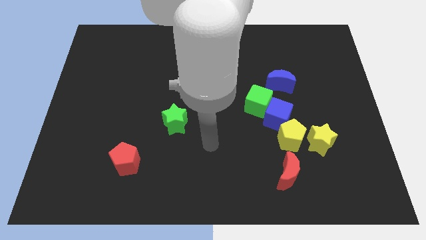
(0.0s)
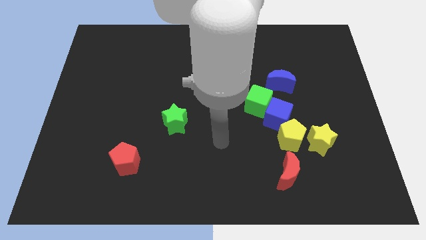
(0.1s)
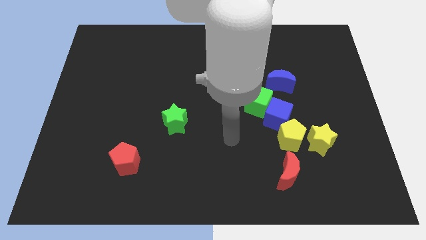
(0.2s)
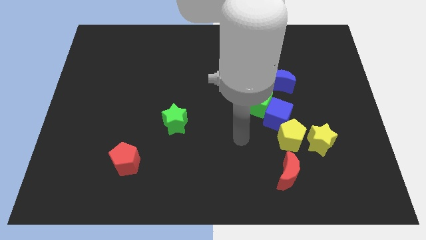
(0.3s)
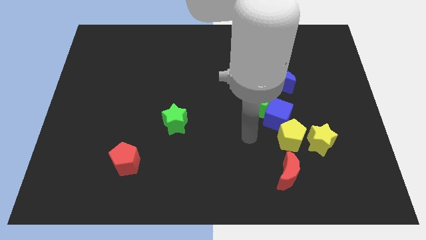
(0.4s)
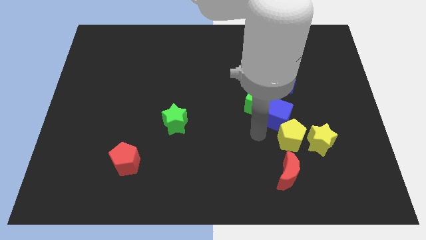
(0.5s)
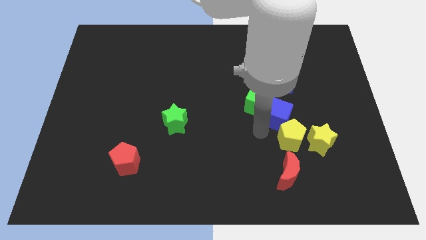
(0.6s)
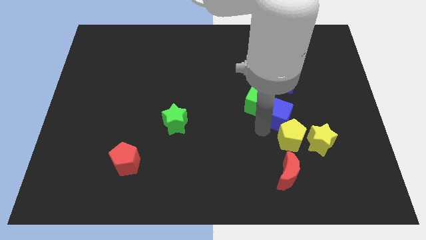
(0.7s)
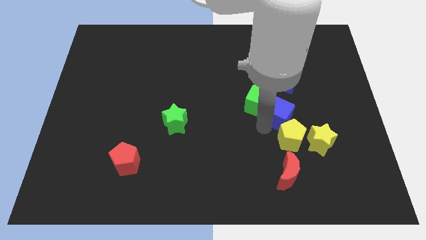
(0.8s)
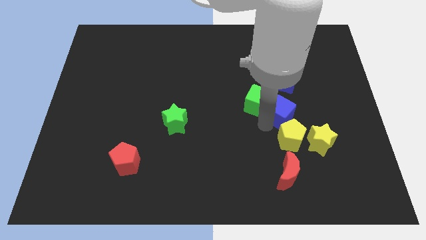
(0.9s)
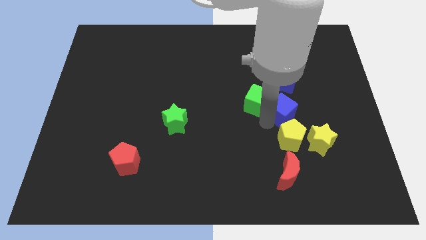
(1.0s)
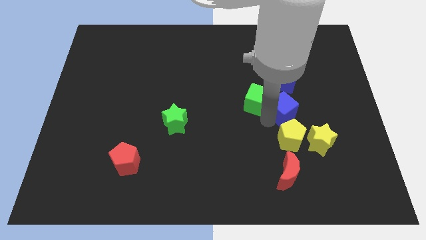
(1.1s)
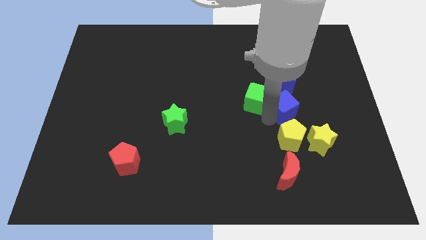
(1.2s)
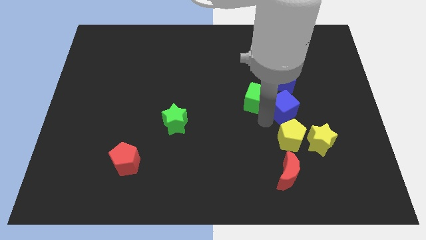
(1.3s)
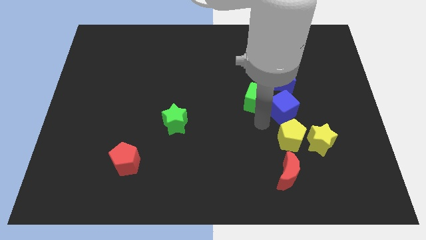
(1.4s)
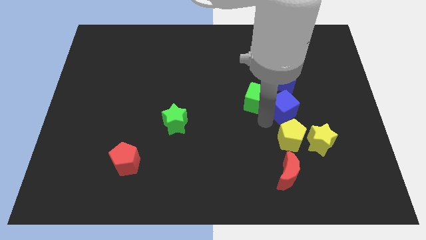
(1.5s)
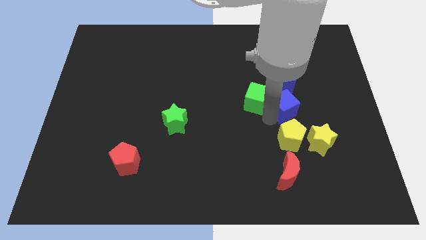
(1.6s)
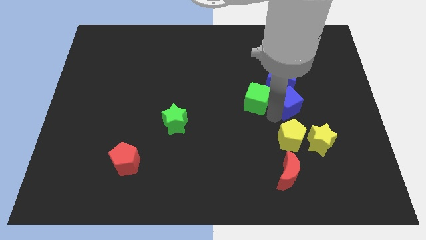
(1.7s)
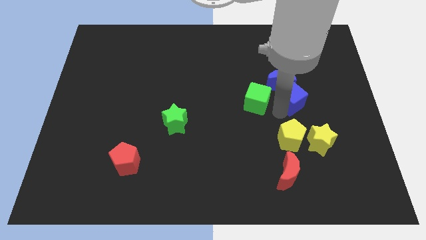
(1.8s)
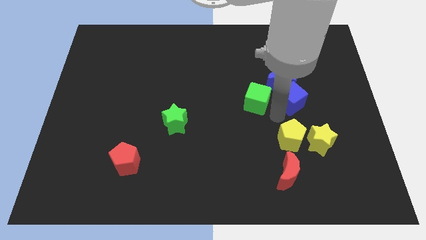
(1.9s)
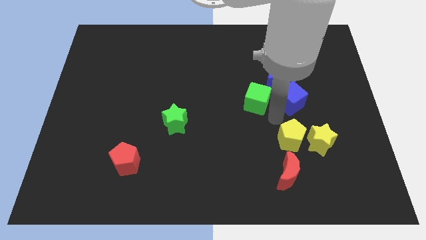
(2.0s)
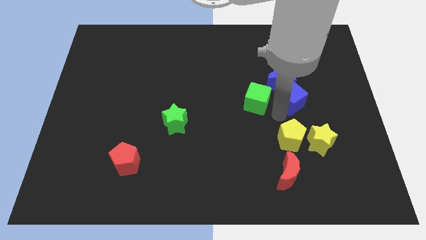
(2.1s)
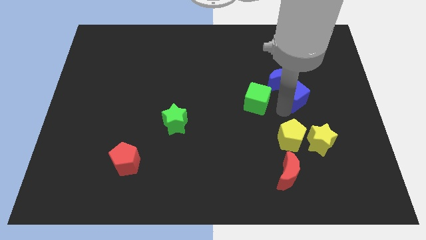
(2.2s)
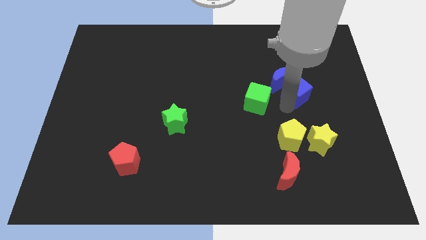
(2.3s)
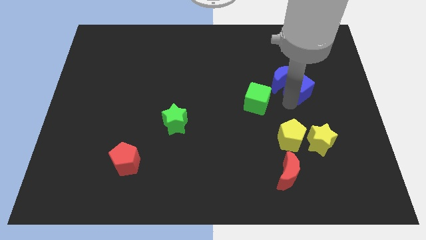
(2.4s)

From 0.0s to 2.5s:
pull the blue cube apart from the green cube and yellow pentagon

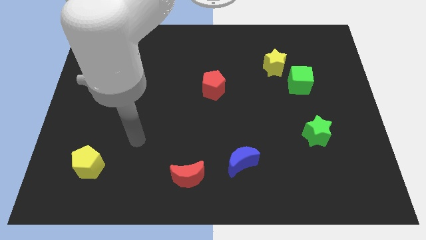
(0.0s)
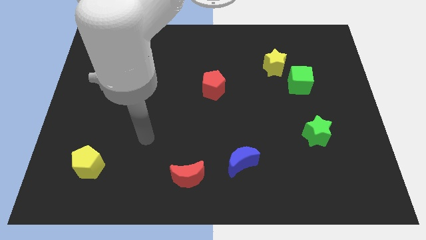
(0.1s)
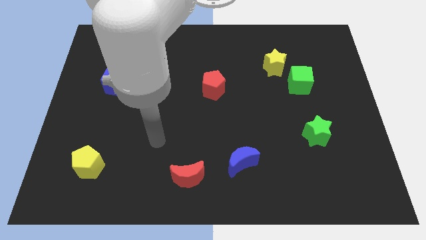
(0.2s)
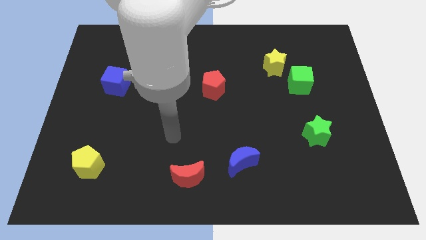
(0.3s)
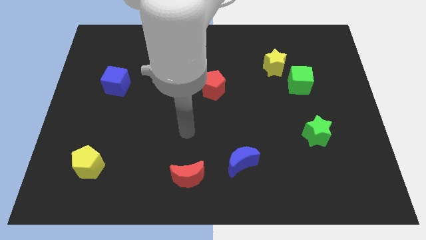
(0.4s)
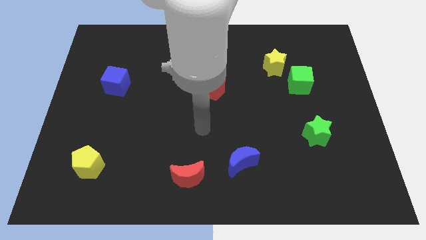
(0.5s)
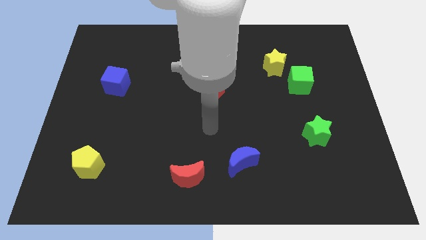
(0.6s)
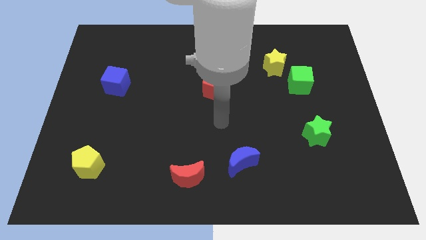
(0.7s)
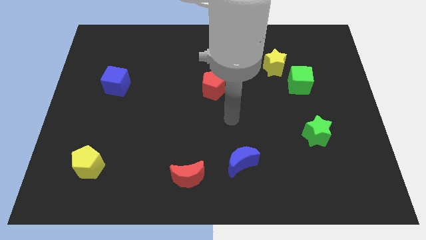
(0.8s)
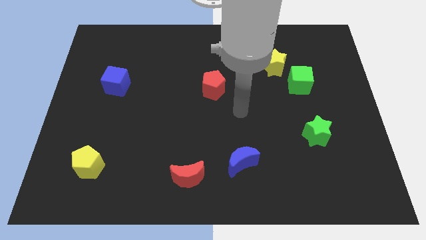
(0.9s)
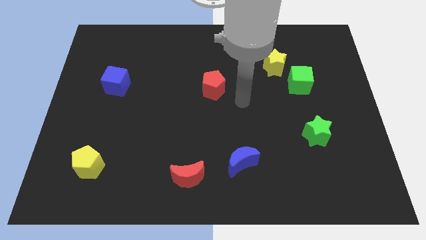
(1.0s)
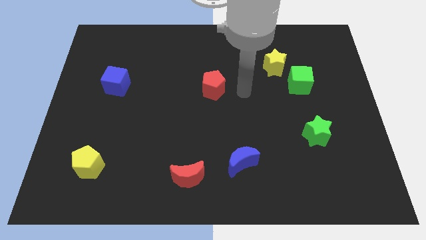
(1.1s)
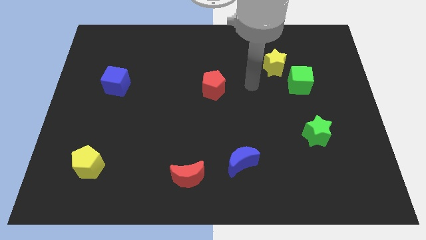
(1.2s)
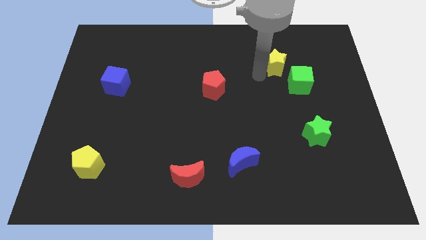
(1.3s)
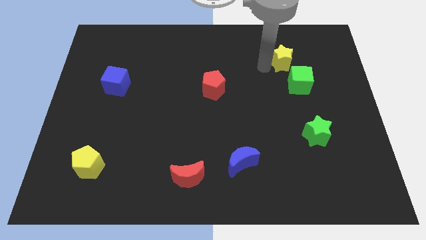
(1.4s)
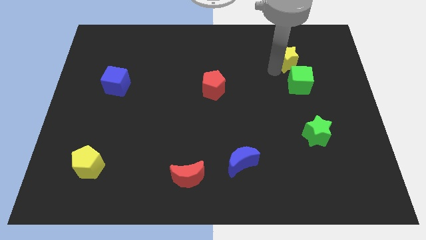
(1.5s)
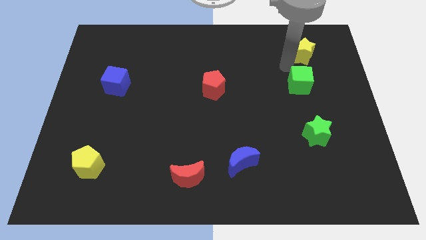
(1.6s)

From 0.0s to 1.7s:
pull the green cube apart from the yellow star

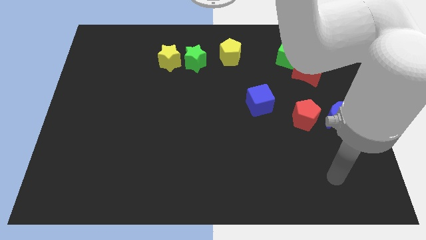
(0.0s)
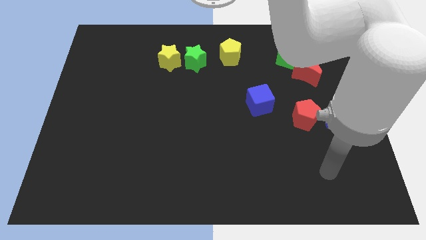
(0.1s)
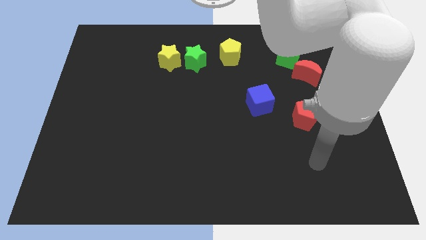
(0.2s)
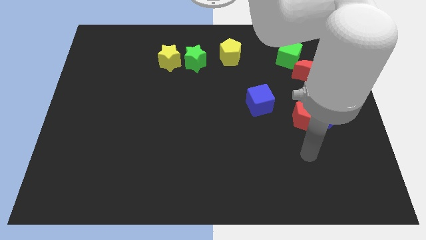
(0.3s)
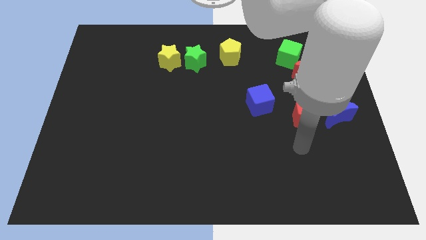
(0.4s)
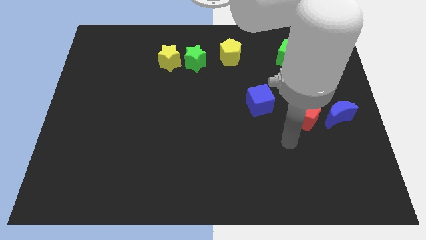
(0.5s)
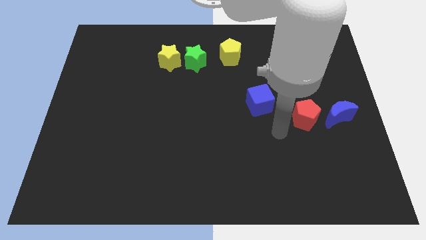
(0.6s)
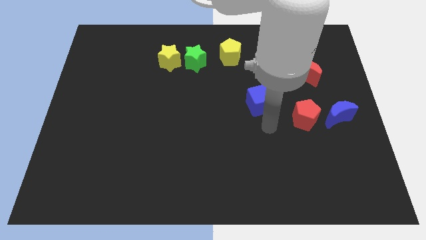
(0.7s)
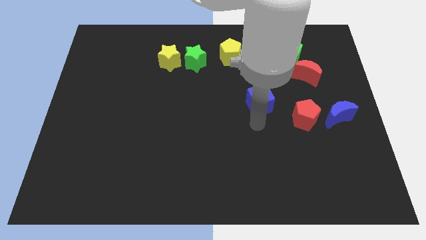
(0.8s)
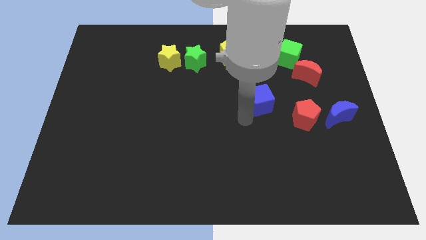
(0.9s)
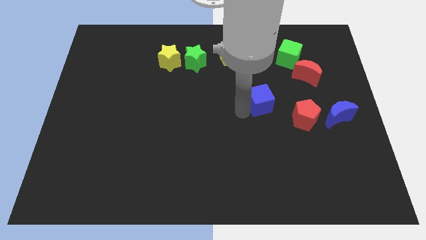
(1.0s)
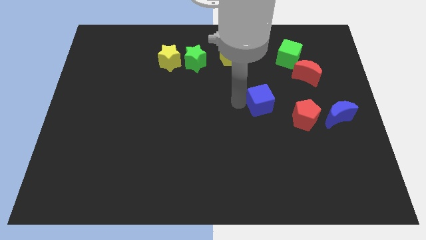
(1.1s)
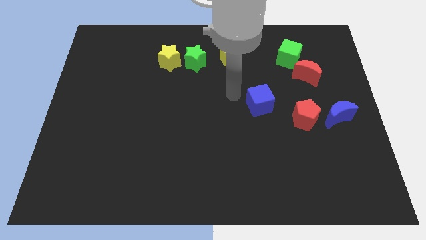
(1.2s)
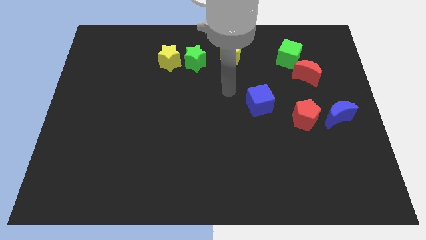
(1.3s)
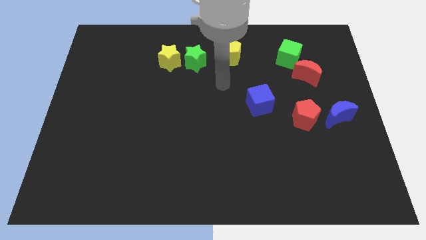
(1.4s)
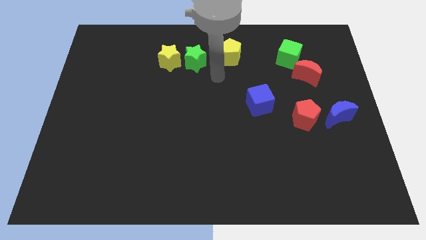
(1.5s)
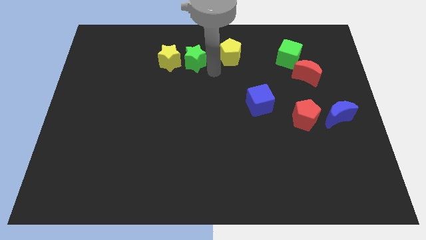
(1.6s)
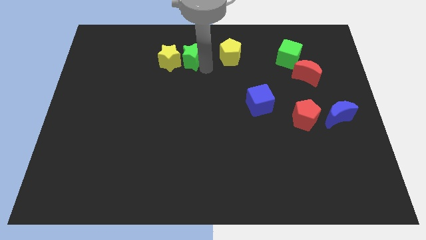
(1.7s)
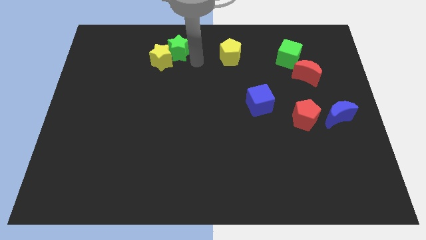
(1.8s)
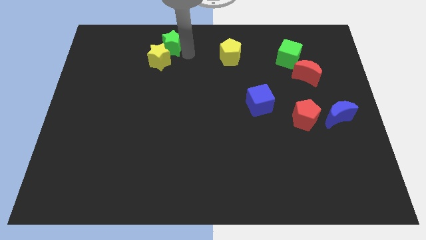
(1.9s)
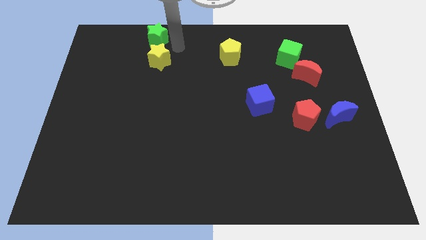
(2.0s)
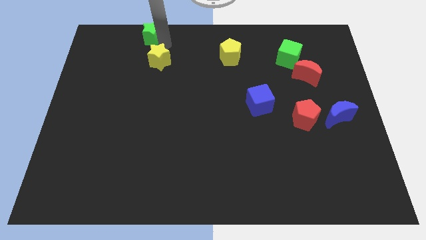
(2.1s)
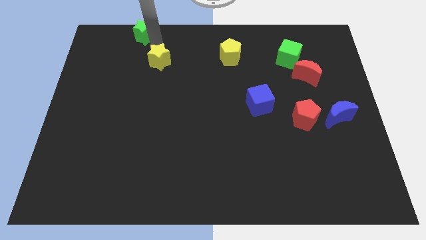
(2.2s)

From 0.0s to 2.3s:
move the yellow star away from the green star

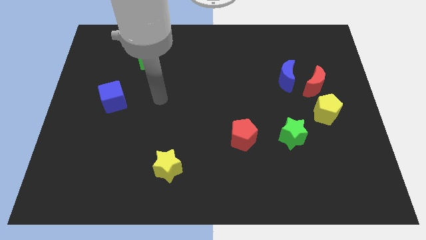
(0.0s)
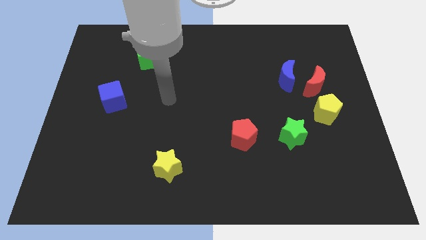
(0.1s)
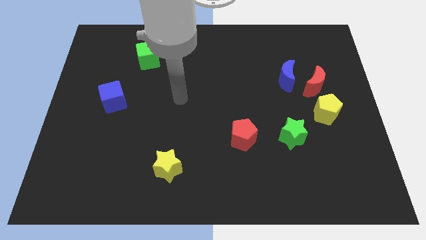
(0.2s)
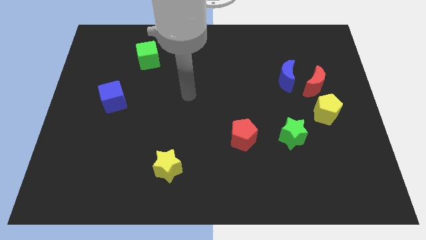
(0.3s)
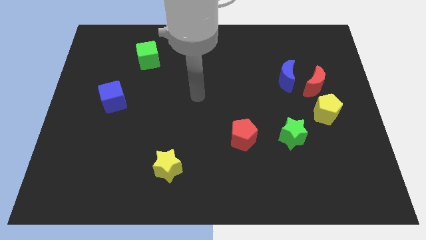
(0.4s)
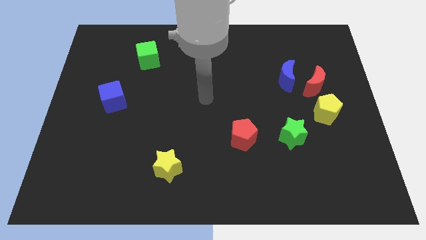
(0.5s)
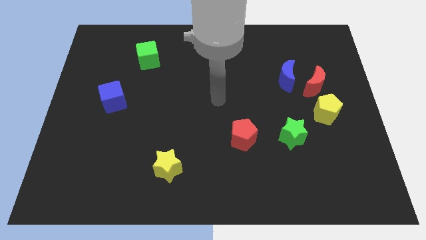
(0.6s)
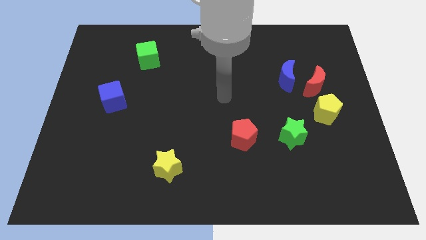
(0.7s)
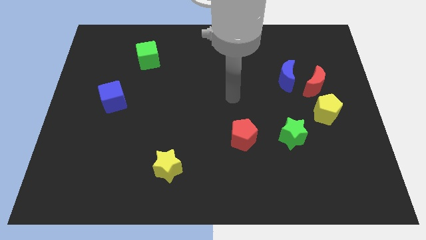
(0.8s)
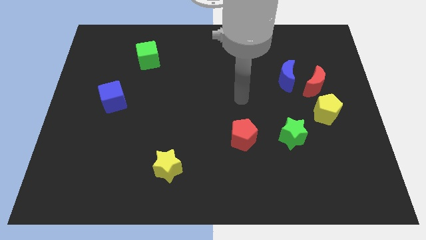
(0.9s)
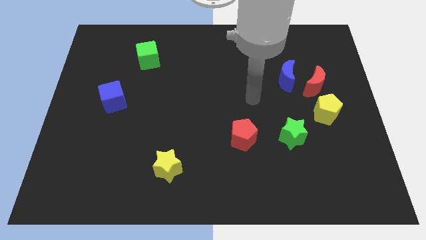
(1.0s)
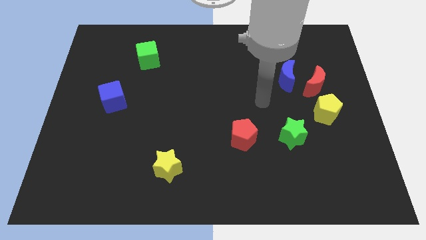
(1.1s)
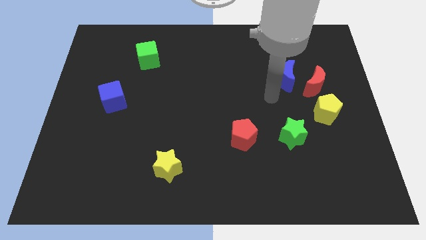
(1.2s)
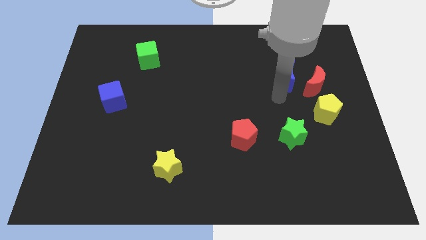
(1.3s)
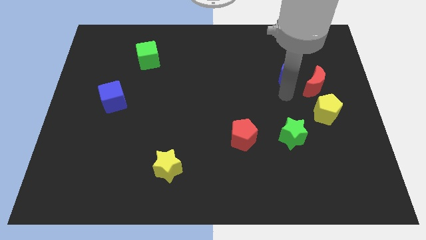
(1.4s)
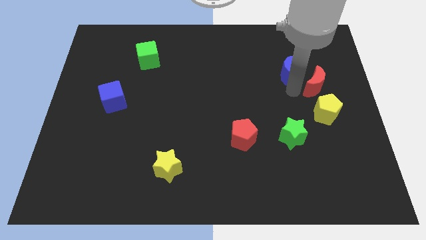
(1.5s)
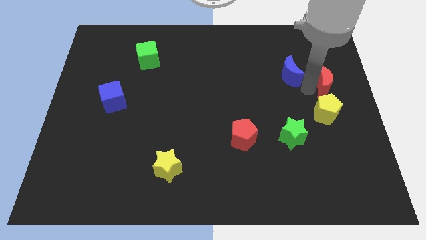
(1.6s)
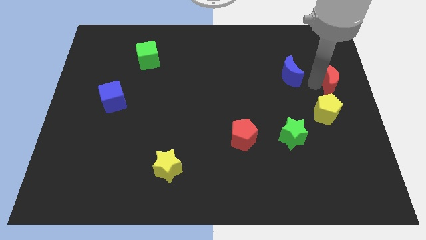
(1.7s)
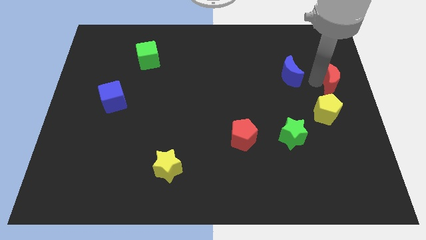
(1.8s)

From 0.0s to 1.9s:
pull the blue moon apart from the red moon

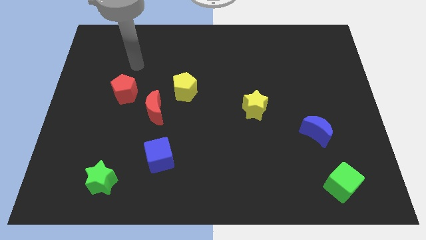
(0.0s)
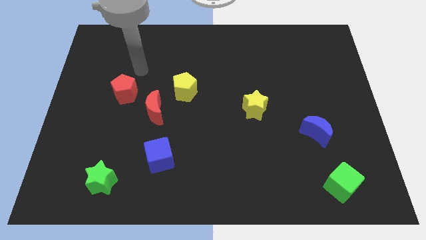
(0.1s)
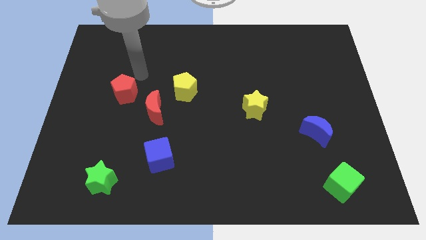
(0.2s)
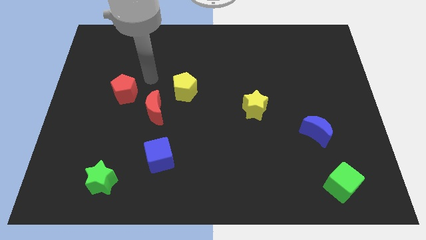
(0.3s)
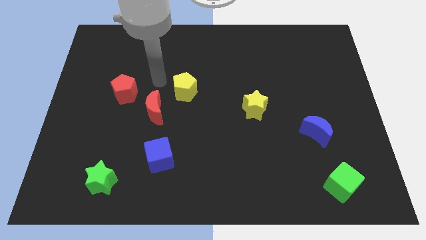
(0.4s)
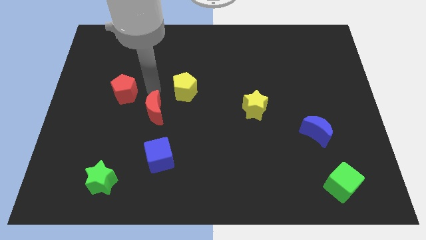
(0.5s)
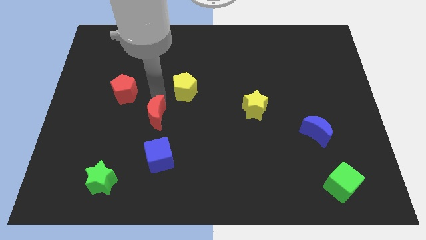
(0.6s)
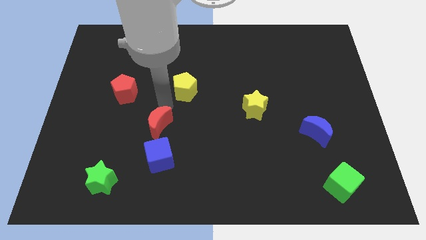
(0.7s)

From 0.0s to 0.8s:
move the yellow pentagon away from the red moon
